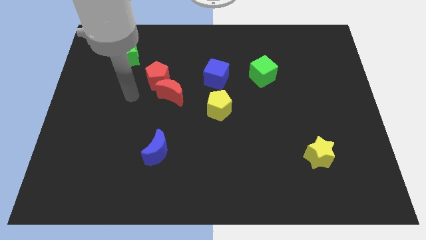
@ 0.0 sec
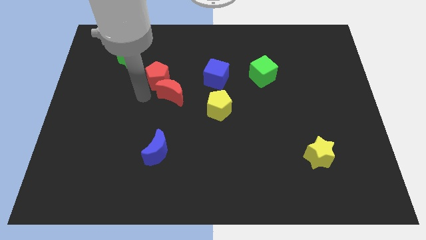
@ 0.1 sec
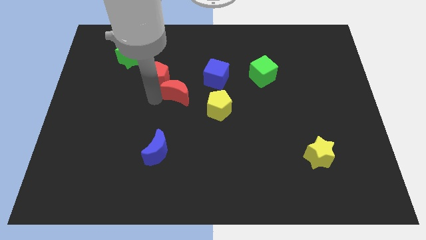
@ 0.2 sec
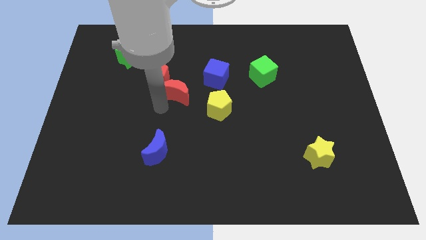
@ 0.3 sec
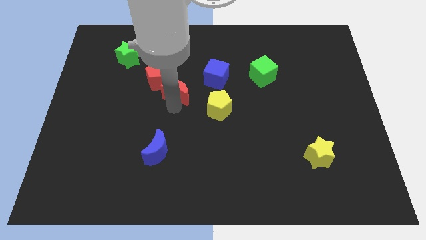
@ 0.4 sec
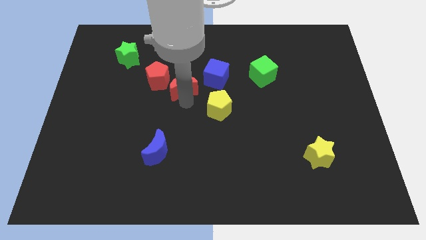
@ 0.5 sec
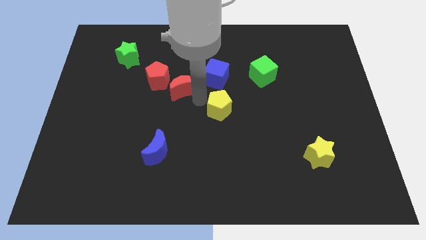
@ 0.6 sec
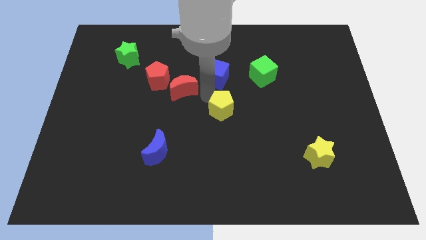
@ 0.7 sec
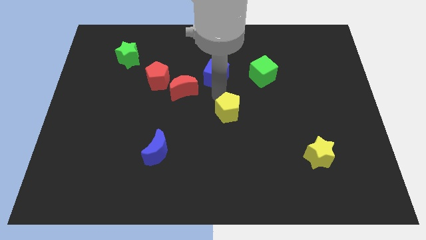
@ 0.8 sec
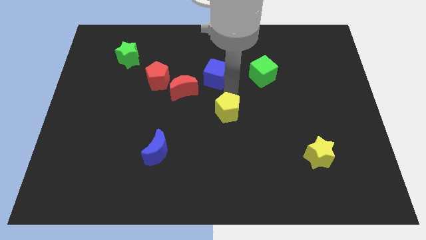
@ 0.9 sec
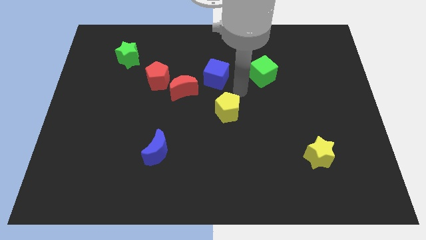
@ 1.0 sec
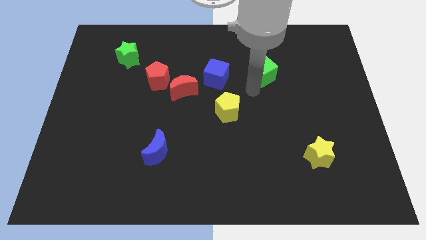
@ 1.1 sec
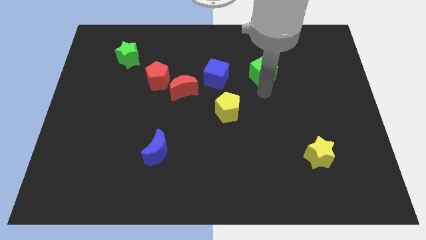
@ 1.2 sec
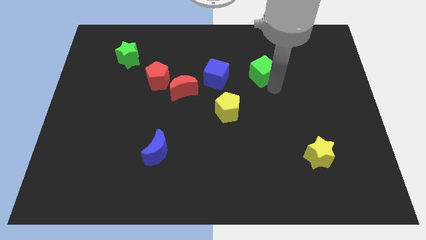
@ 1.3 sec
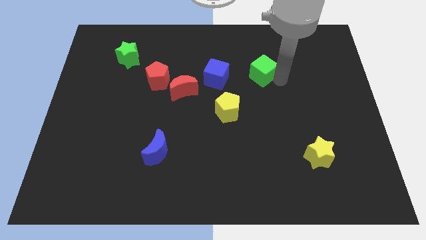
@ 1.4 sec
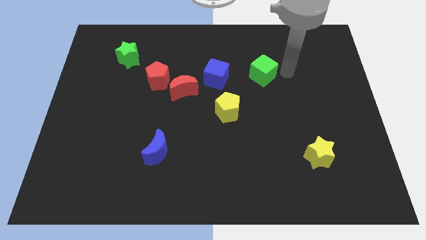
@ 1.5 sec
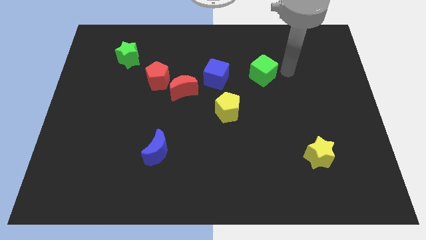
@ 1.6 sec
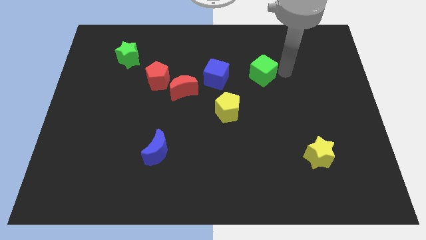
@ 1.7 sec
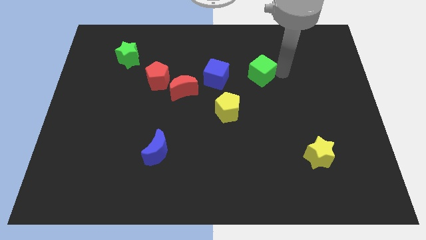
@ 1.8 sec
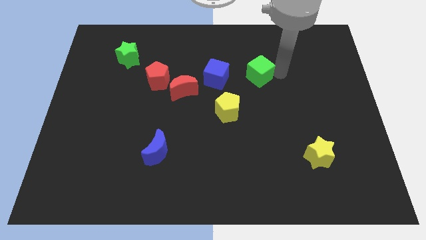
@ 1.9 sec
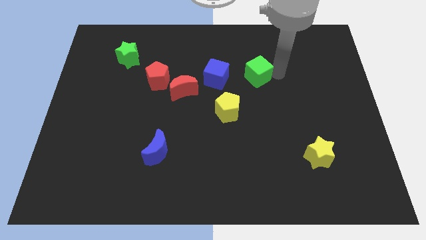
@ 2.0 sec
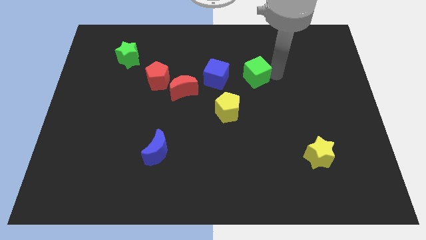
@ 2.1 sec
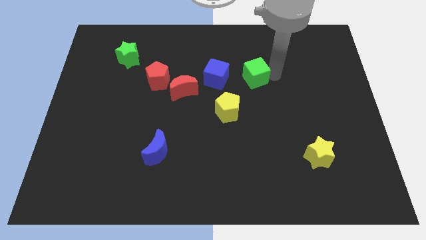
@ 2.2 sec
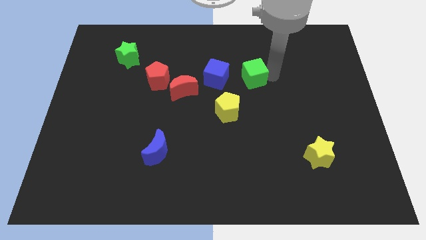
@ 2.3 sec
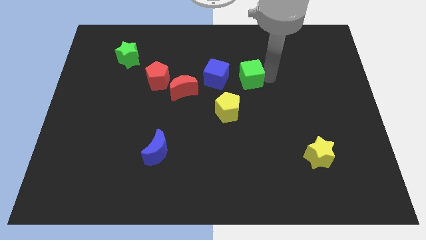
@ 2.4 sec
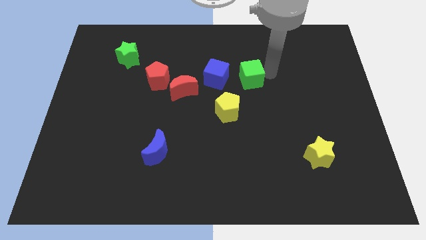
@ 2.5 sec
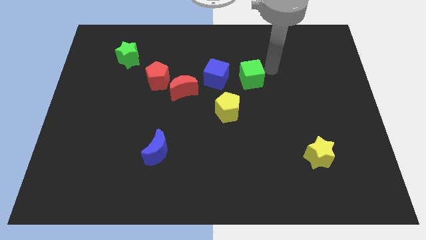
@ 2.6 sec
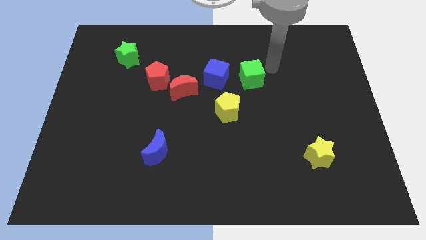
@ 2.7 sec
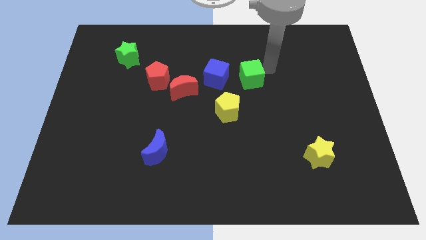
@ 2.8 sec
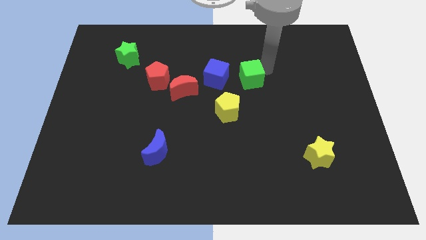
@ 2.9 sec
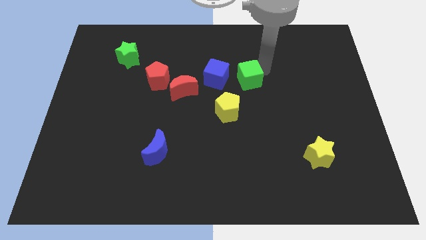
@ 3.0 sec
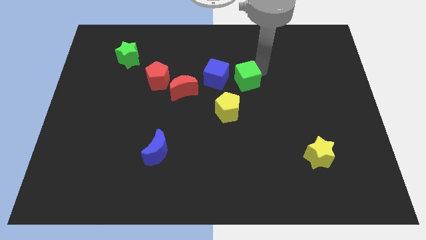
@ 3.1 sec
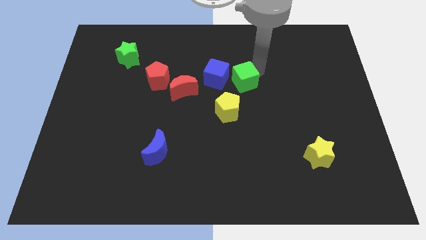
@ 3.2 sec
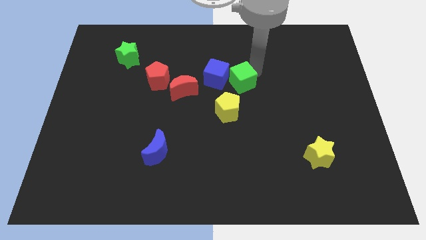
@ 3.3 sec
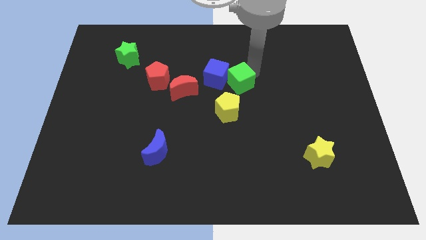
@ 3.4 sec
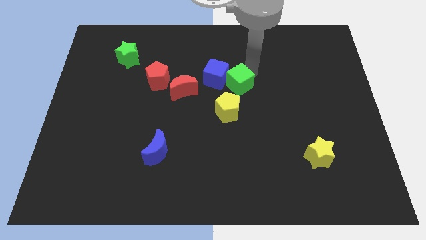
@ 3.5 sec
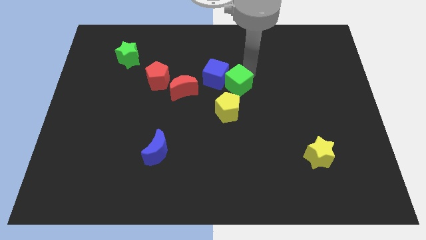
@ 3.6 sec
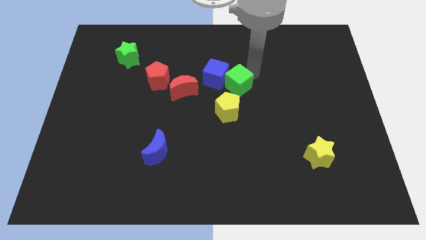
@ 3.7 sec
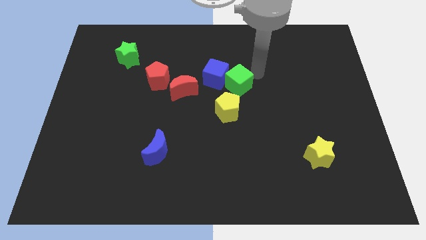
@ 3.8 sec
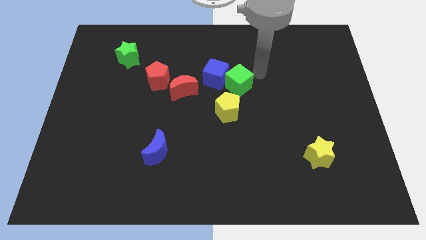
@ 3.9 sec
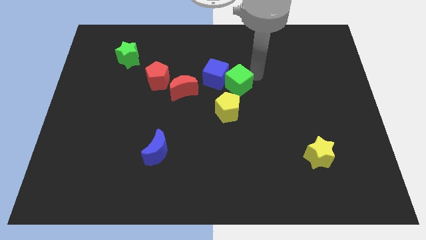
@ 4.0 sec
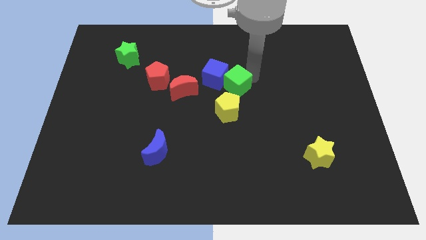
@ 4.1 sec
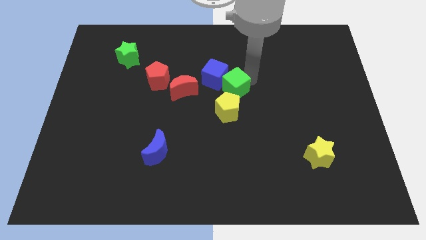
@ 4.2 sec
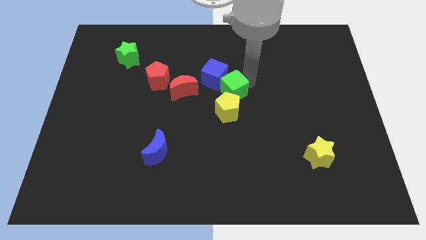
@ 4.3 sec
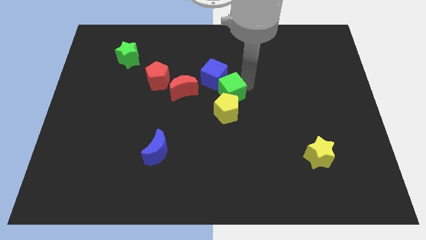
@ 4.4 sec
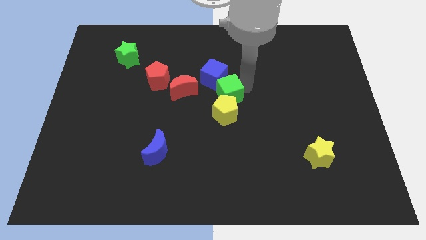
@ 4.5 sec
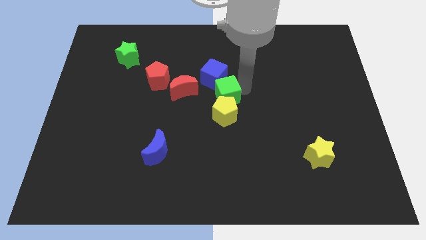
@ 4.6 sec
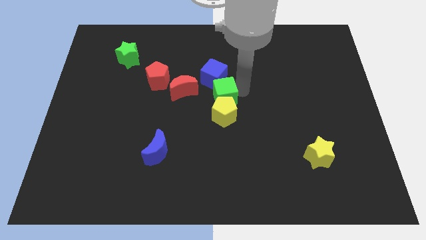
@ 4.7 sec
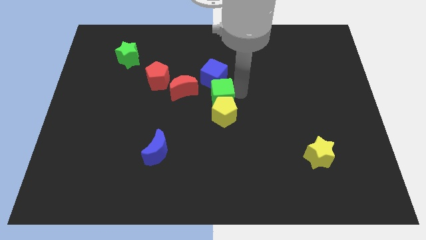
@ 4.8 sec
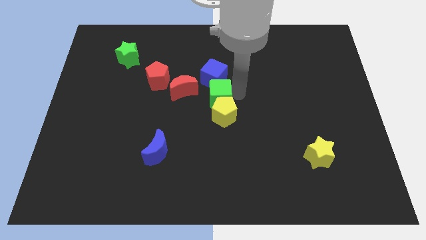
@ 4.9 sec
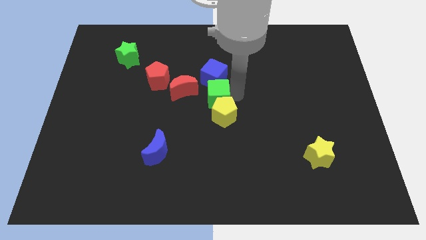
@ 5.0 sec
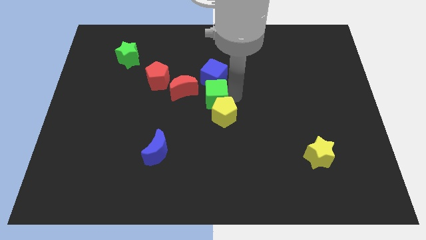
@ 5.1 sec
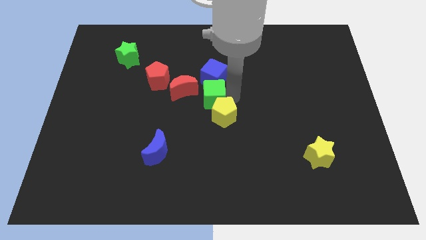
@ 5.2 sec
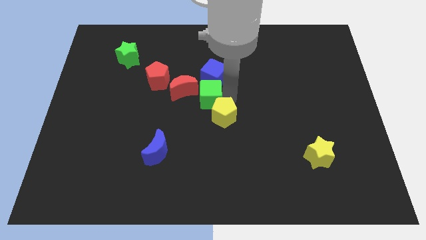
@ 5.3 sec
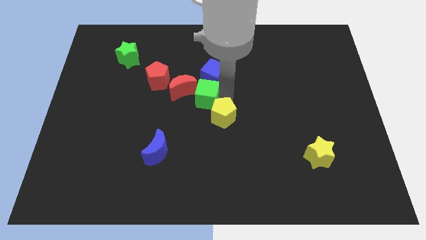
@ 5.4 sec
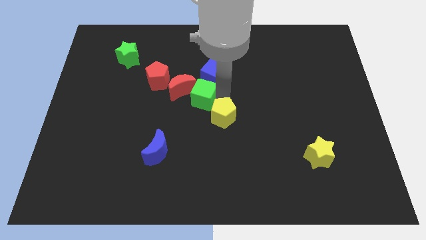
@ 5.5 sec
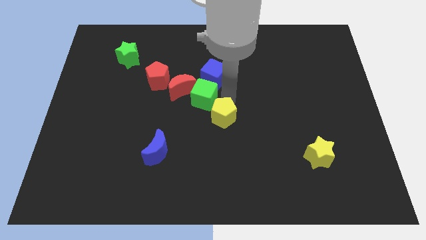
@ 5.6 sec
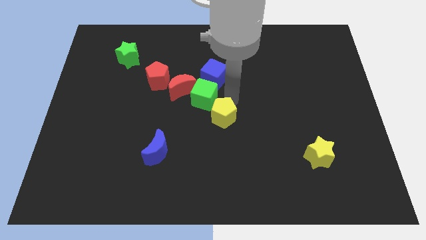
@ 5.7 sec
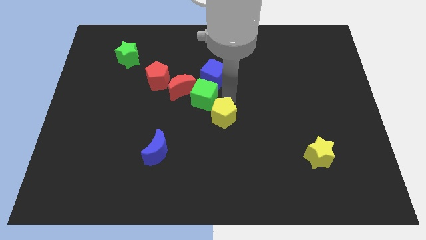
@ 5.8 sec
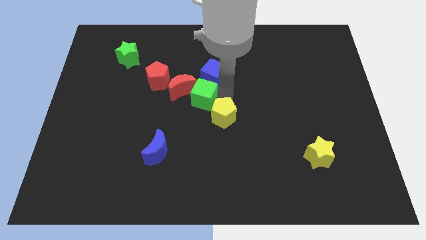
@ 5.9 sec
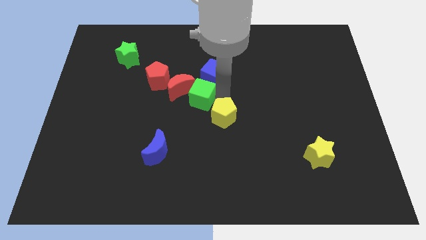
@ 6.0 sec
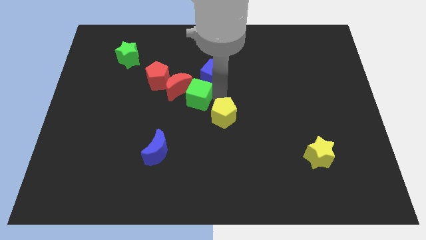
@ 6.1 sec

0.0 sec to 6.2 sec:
move the green cube to the bottom right of the red pentagon

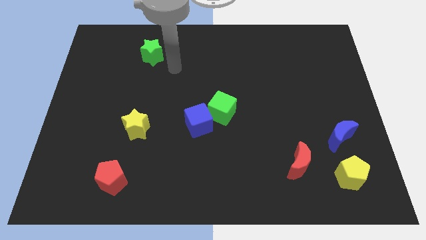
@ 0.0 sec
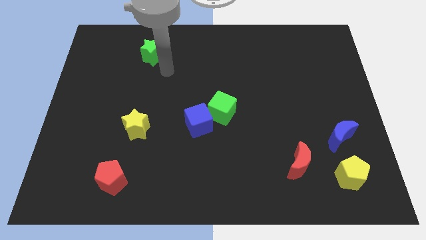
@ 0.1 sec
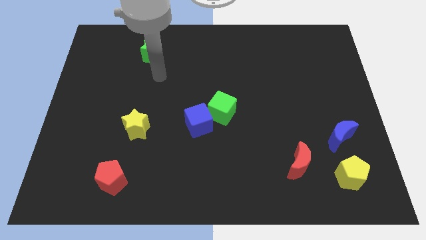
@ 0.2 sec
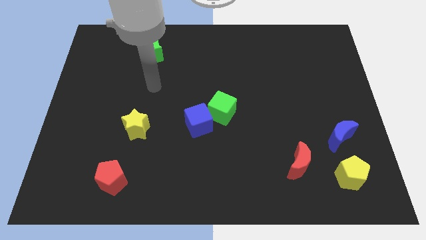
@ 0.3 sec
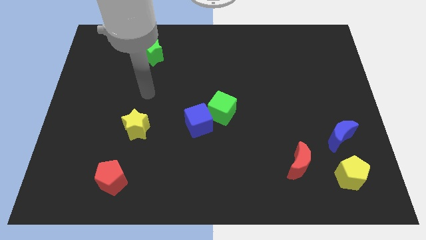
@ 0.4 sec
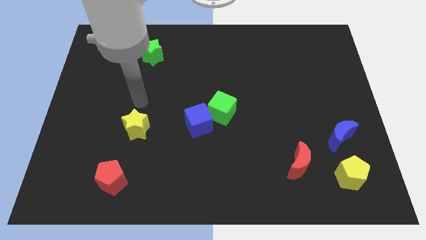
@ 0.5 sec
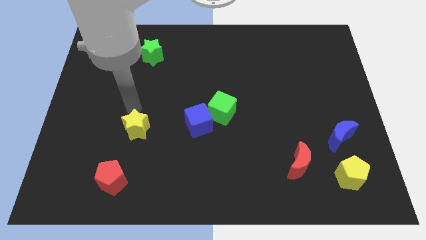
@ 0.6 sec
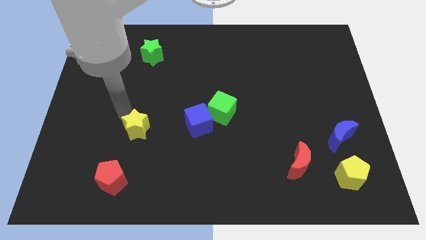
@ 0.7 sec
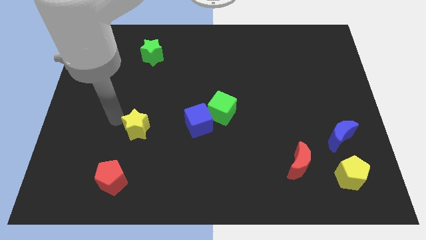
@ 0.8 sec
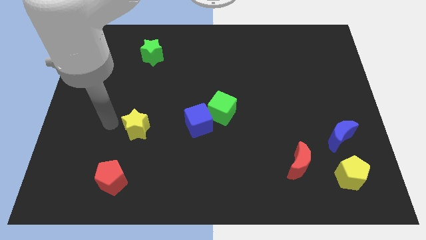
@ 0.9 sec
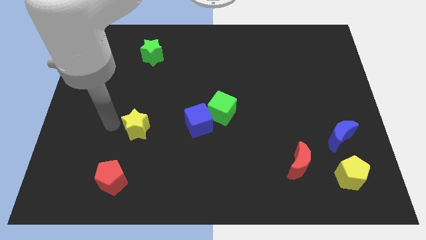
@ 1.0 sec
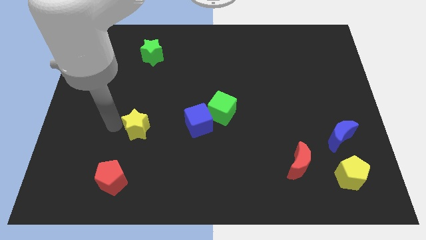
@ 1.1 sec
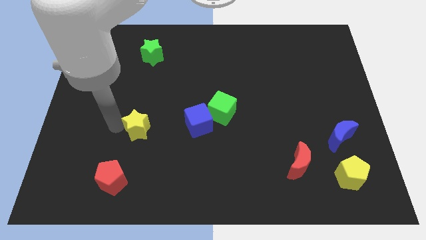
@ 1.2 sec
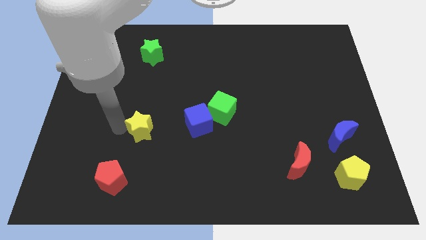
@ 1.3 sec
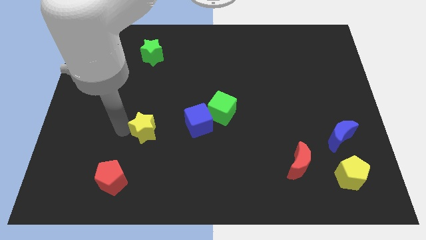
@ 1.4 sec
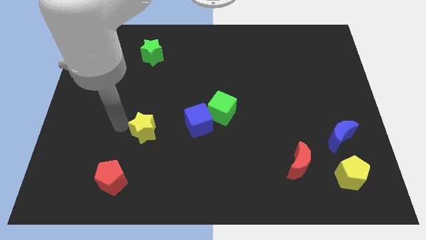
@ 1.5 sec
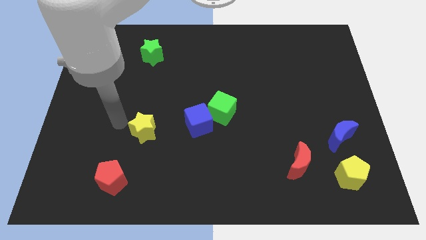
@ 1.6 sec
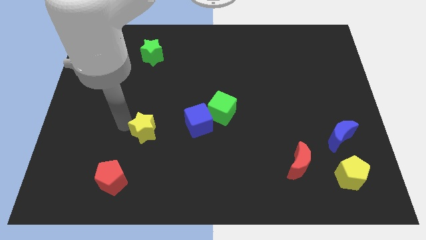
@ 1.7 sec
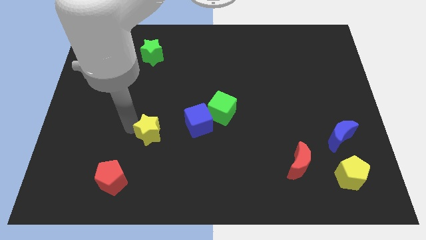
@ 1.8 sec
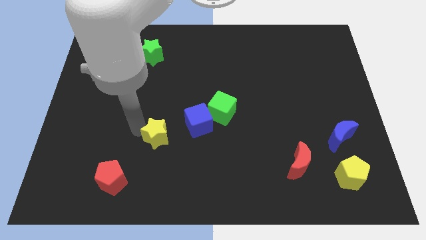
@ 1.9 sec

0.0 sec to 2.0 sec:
move the yellow star diagonally down and to the left of the blue cube
